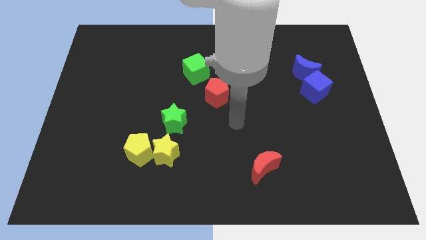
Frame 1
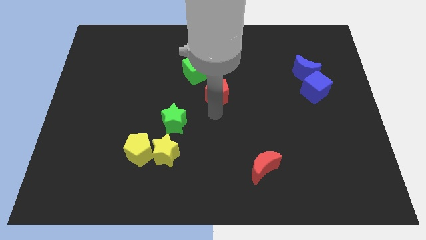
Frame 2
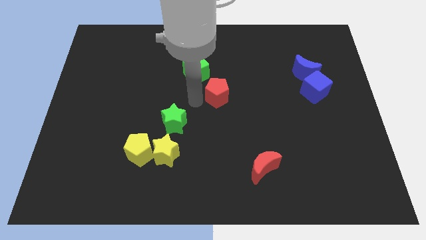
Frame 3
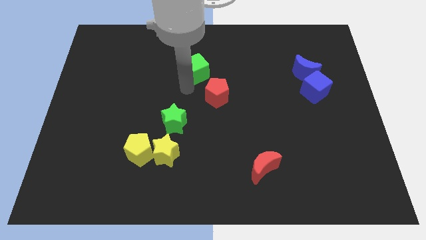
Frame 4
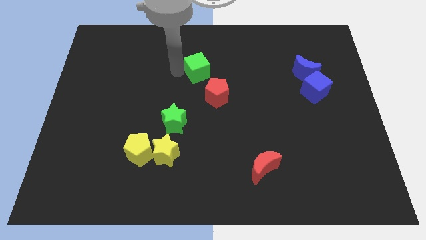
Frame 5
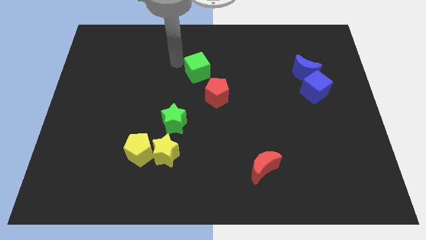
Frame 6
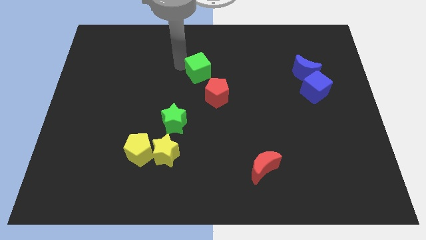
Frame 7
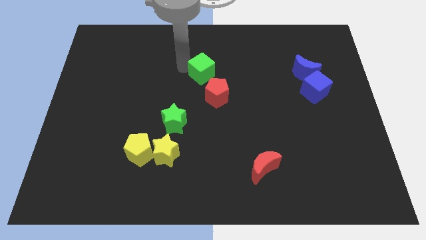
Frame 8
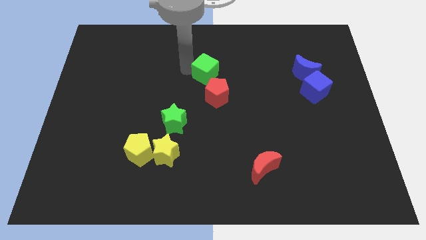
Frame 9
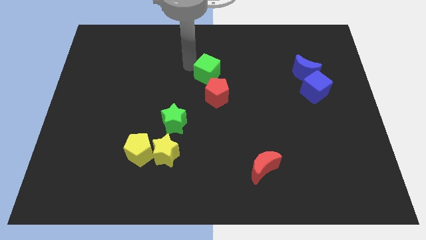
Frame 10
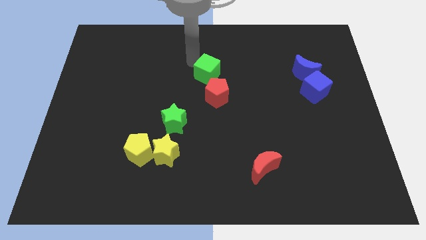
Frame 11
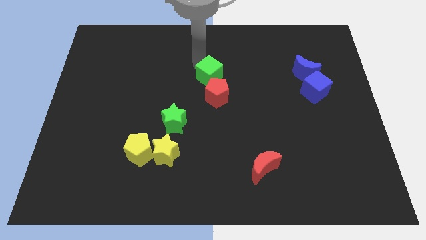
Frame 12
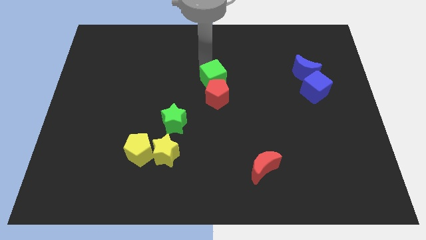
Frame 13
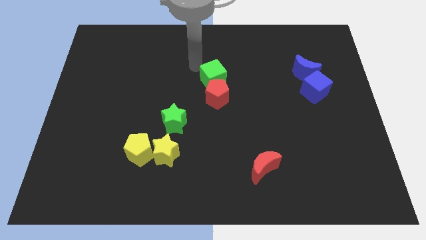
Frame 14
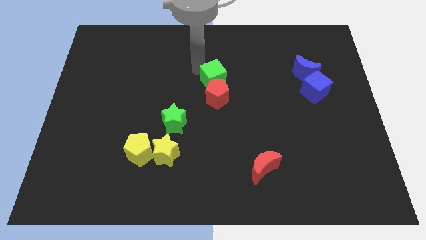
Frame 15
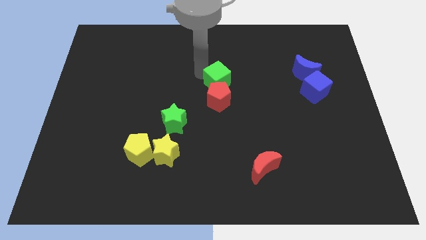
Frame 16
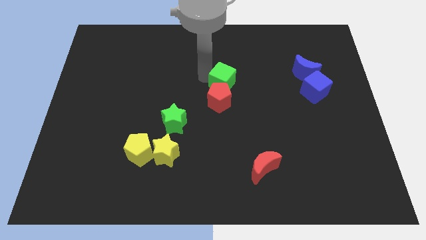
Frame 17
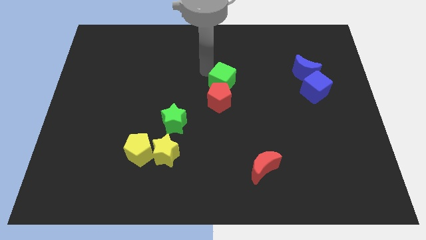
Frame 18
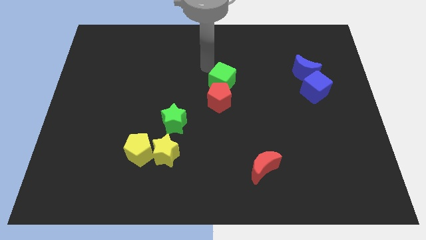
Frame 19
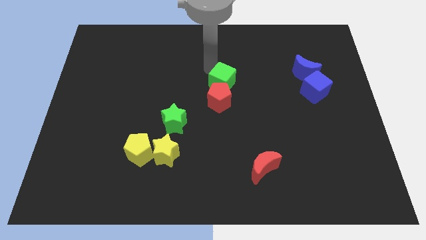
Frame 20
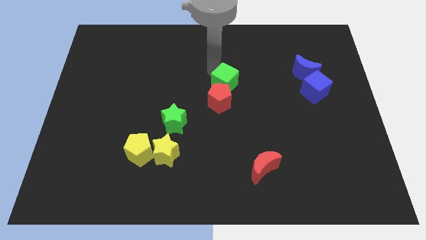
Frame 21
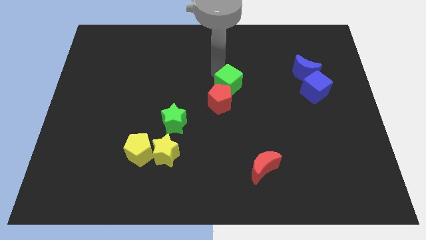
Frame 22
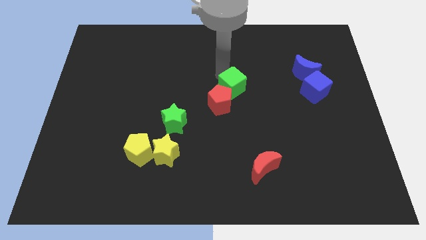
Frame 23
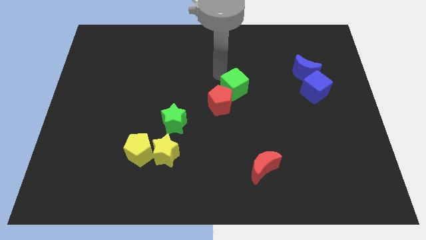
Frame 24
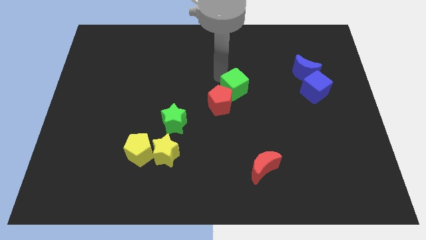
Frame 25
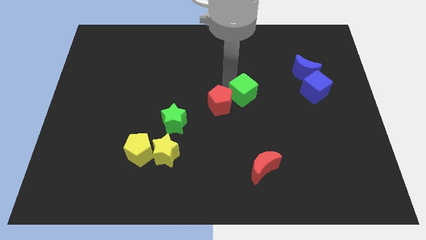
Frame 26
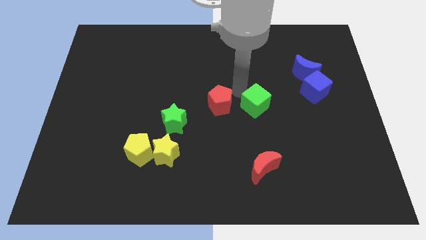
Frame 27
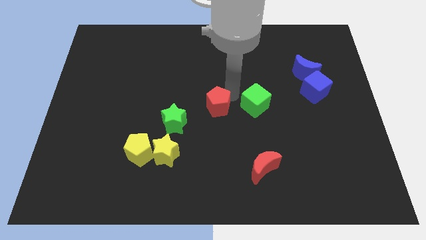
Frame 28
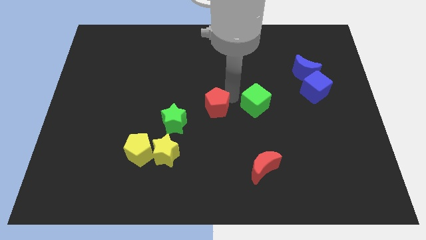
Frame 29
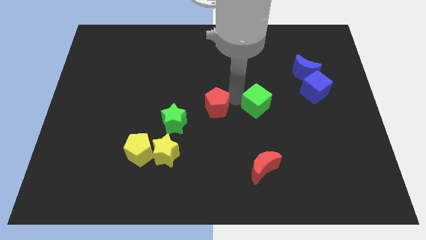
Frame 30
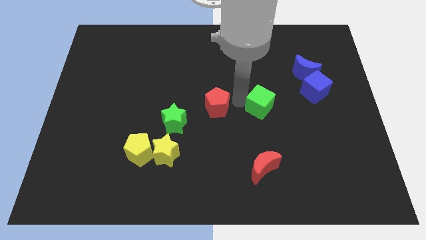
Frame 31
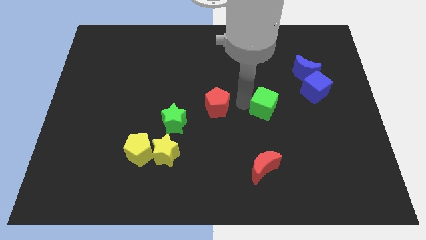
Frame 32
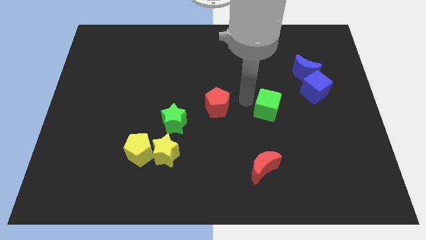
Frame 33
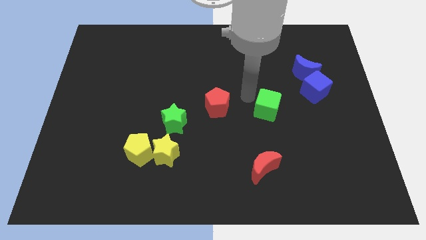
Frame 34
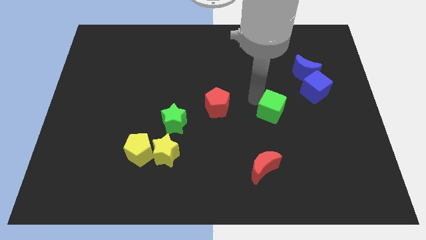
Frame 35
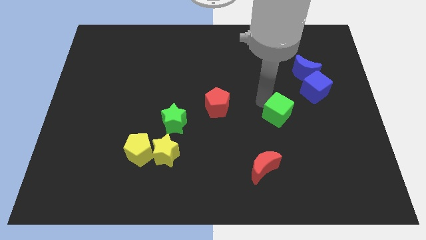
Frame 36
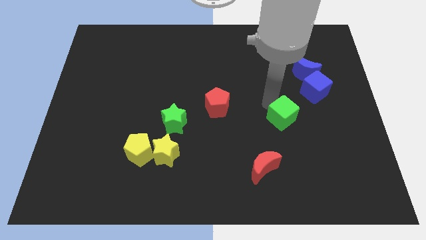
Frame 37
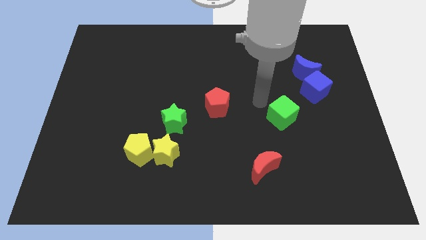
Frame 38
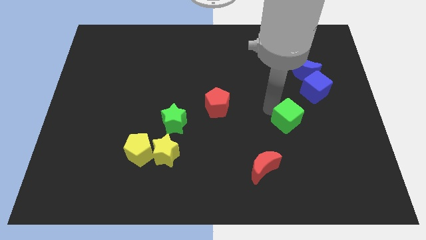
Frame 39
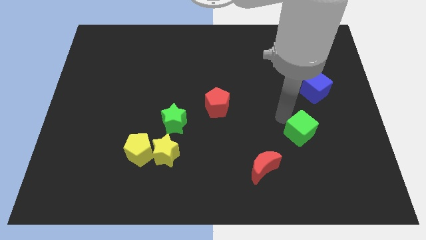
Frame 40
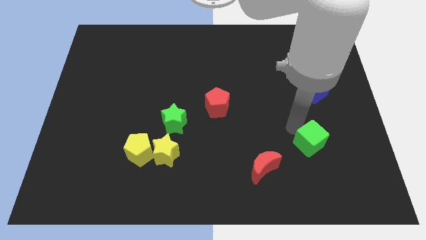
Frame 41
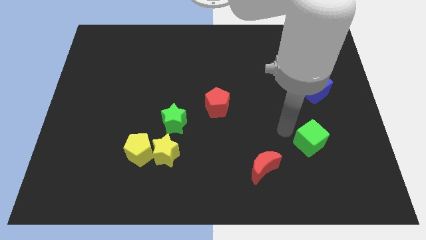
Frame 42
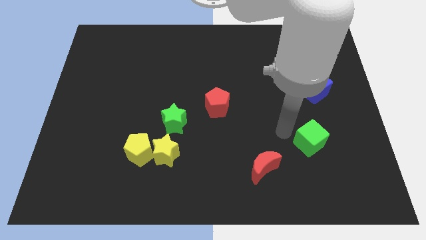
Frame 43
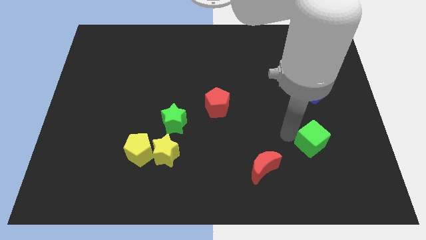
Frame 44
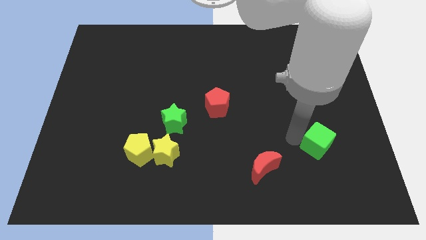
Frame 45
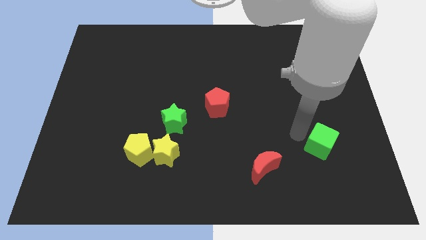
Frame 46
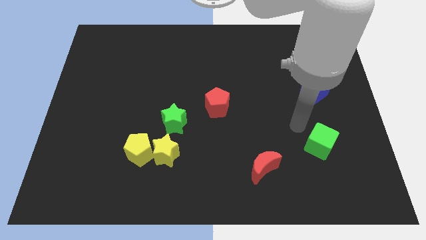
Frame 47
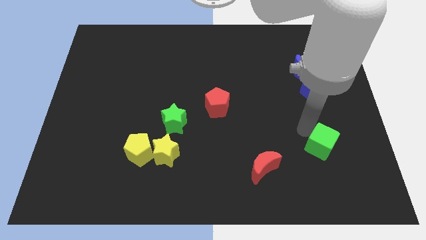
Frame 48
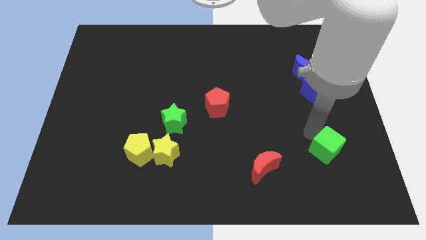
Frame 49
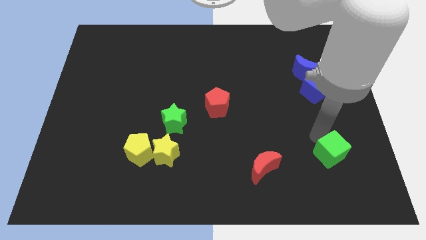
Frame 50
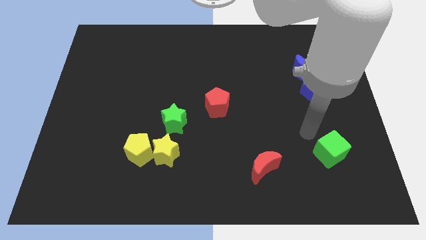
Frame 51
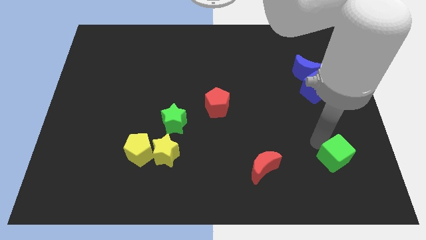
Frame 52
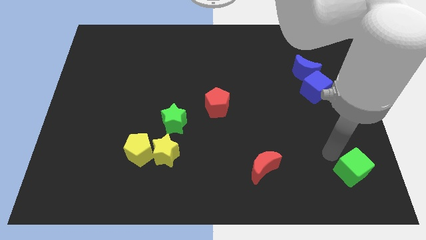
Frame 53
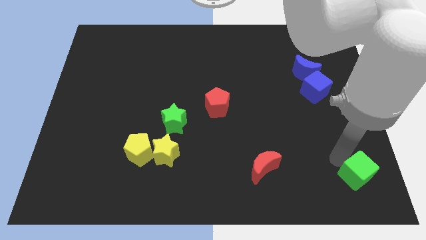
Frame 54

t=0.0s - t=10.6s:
put the green cube to the bottom right

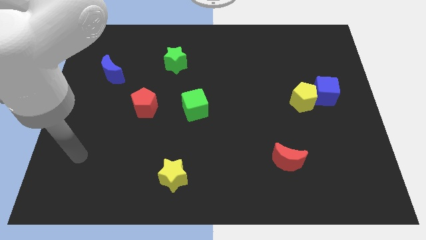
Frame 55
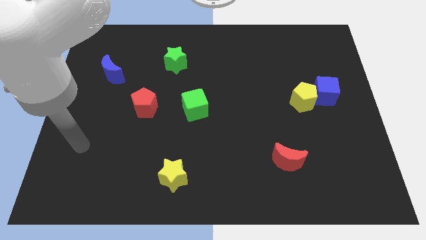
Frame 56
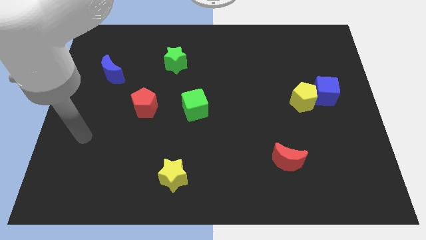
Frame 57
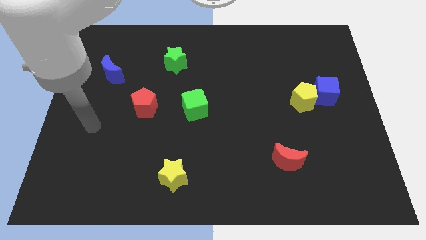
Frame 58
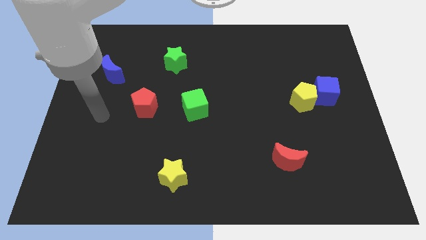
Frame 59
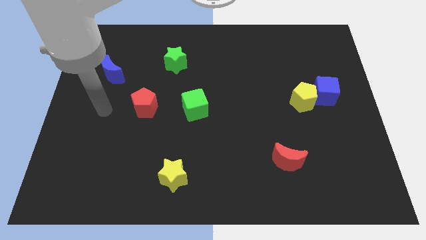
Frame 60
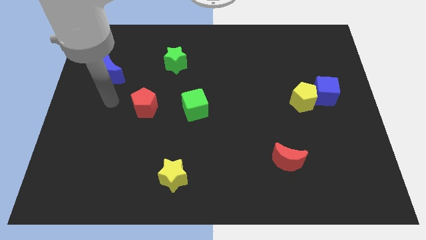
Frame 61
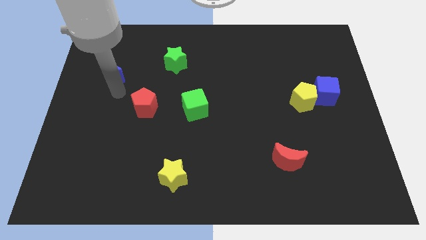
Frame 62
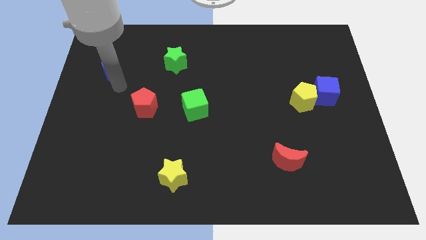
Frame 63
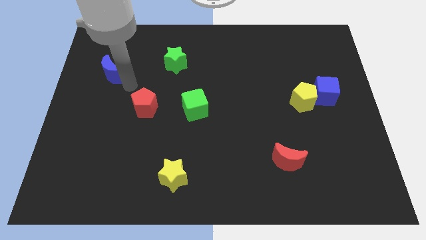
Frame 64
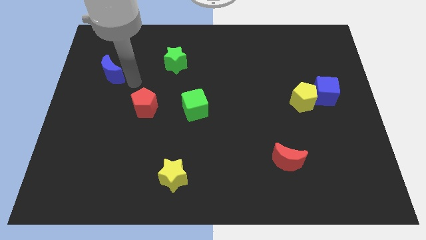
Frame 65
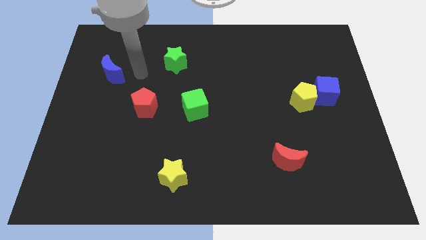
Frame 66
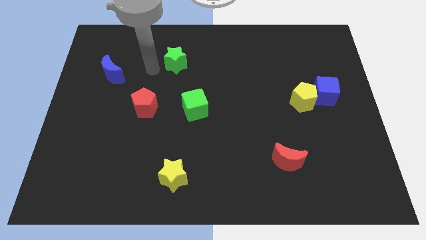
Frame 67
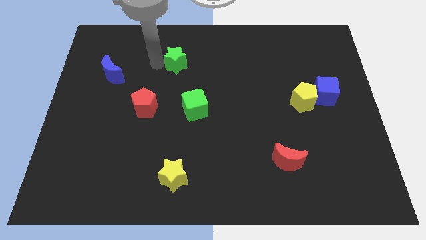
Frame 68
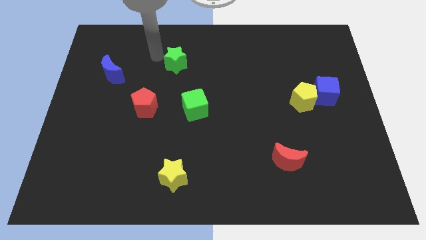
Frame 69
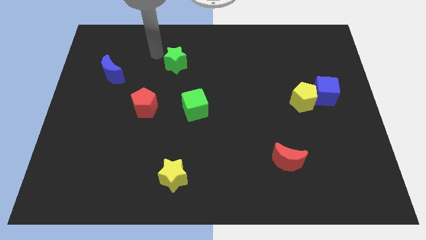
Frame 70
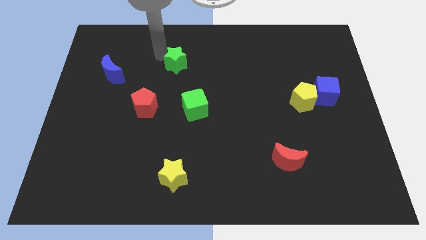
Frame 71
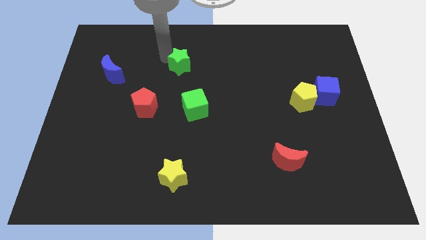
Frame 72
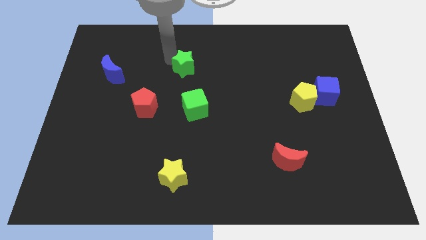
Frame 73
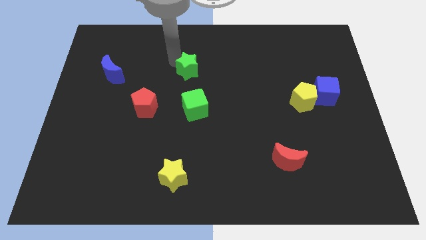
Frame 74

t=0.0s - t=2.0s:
push the green star to the center
